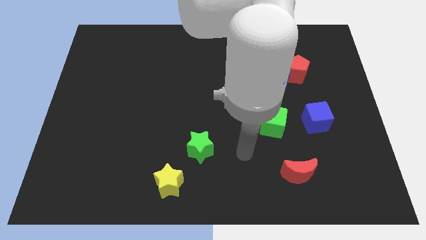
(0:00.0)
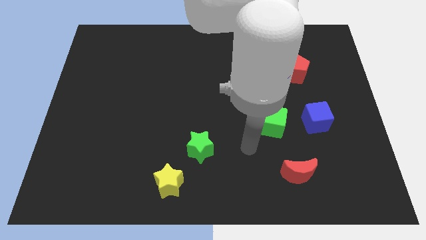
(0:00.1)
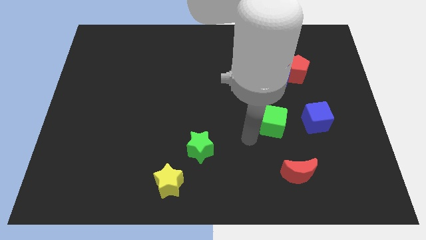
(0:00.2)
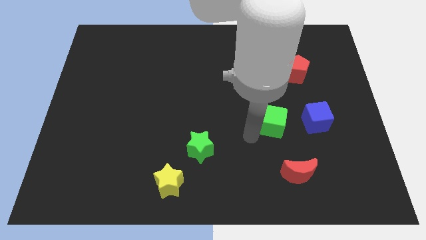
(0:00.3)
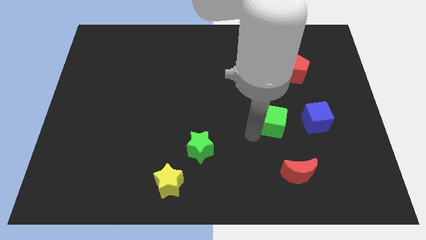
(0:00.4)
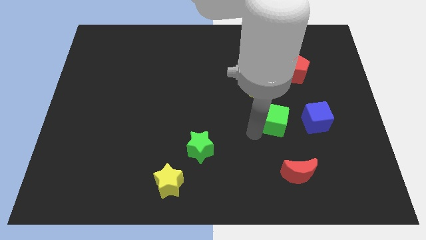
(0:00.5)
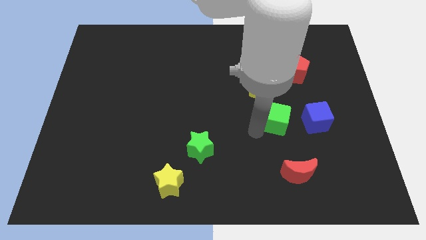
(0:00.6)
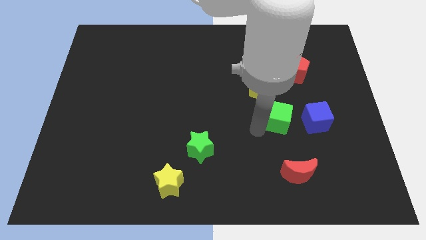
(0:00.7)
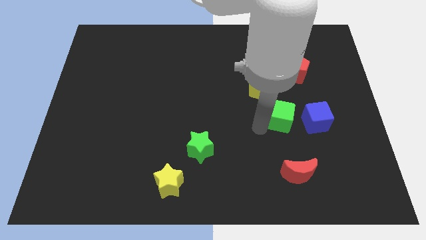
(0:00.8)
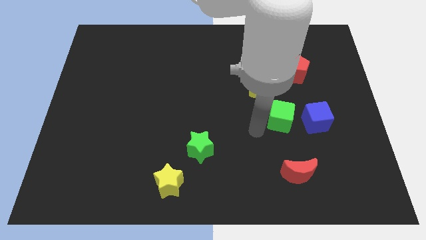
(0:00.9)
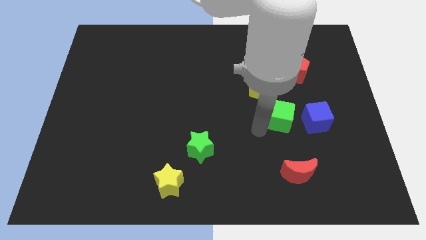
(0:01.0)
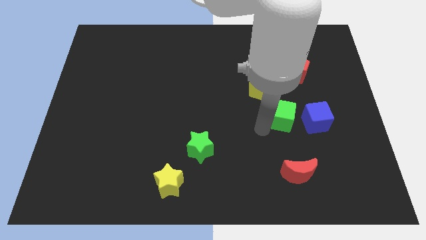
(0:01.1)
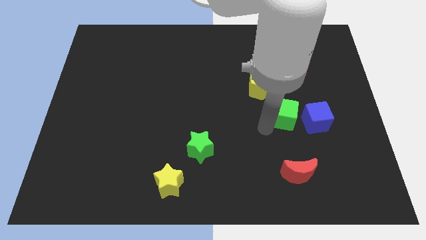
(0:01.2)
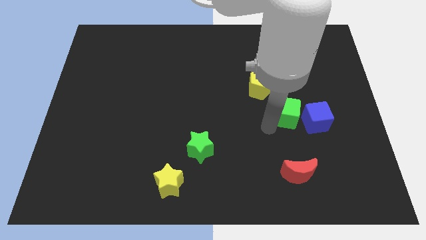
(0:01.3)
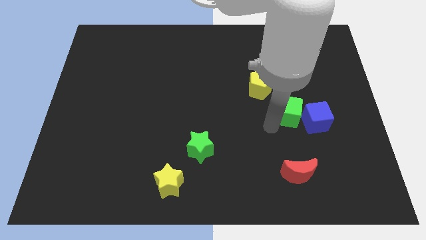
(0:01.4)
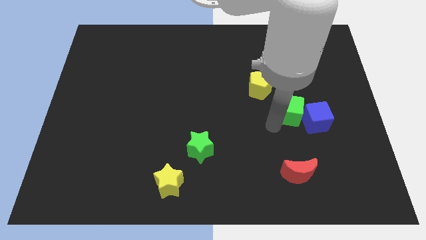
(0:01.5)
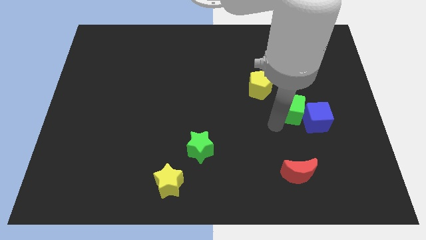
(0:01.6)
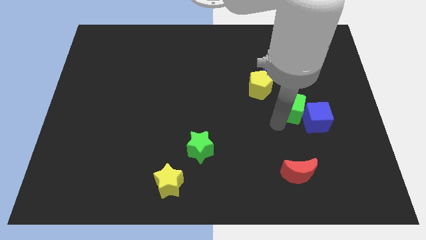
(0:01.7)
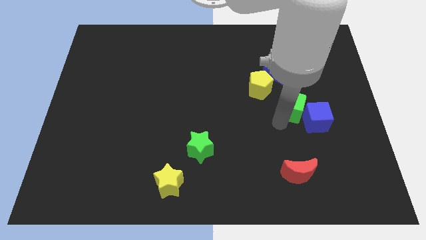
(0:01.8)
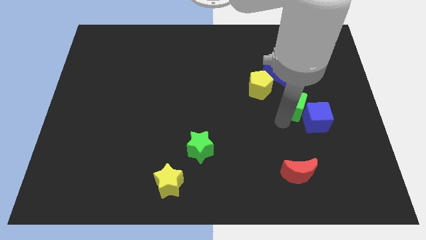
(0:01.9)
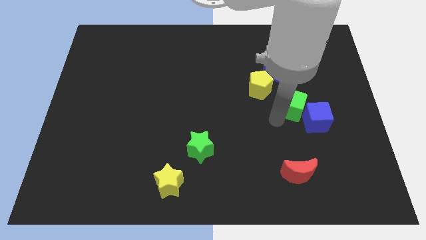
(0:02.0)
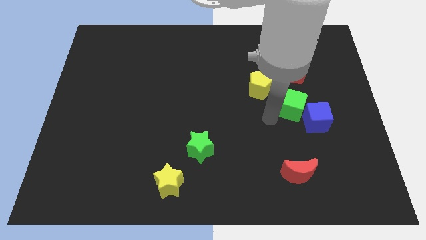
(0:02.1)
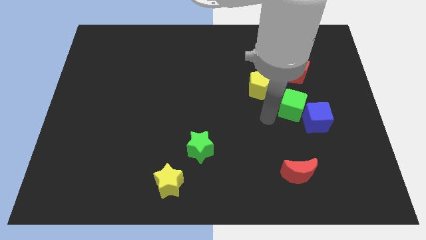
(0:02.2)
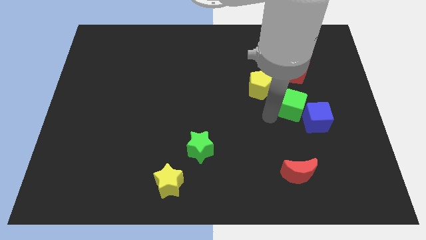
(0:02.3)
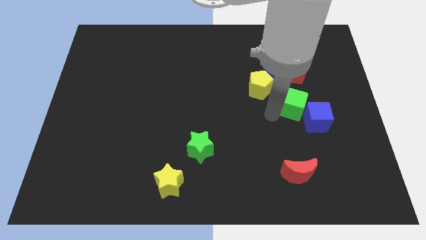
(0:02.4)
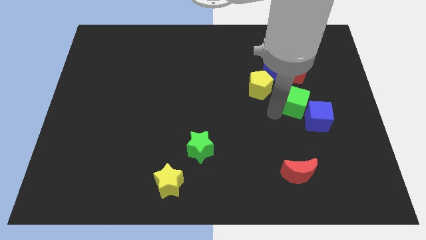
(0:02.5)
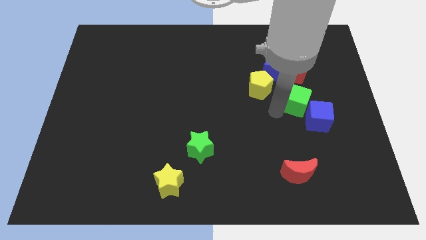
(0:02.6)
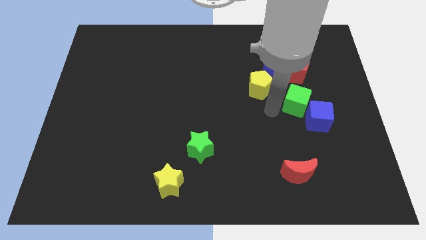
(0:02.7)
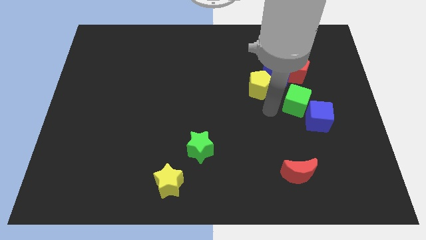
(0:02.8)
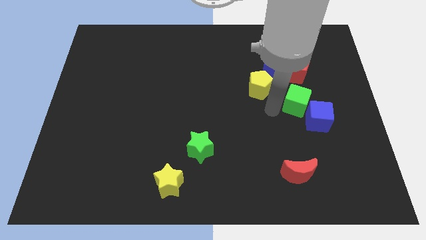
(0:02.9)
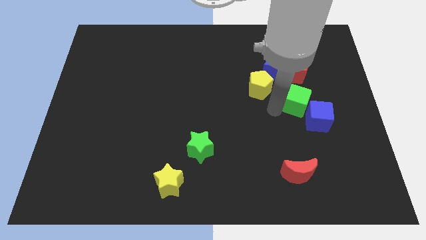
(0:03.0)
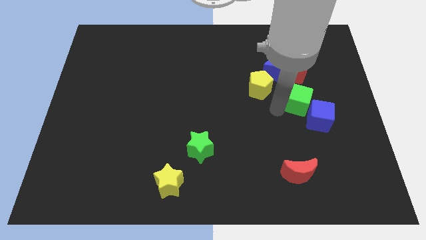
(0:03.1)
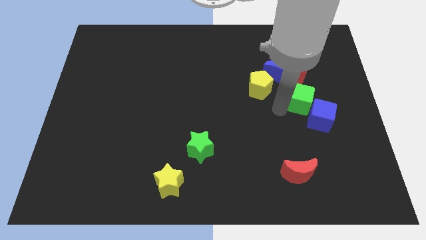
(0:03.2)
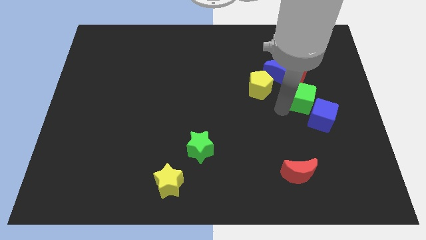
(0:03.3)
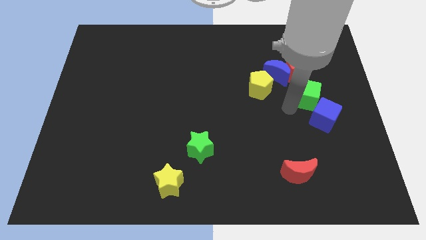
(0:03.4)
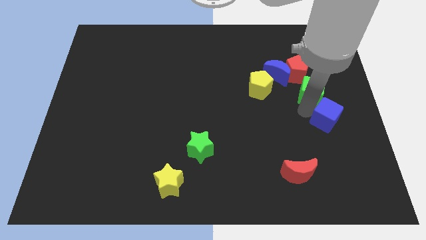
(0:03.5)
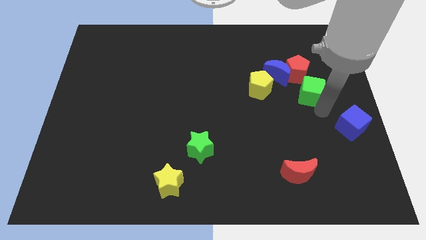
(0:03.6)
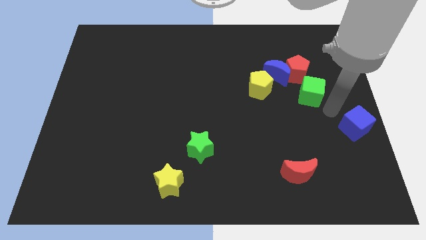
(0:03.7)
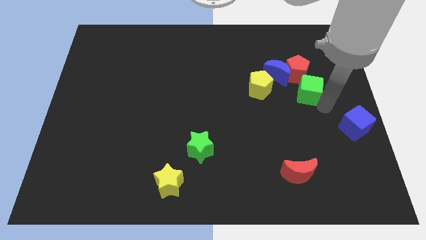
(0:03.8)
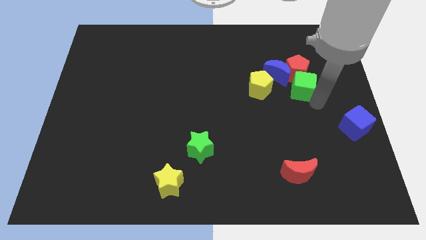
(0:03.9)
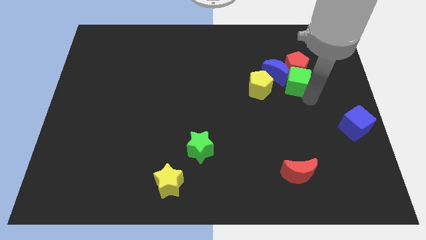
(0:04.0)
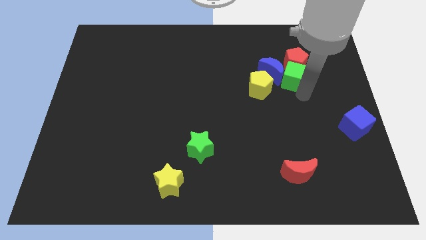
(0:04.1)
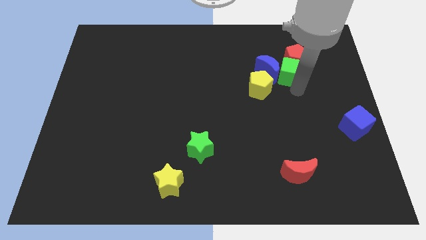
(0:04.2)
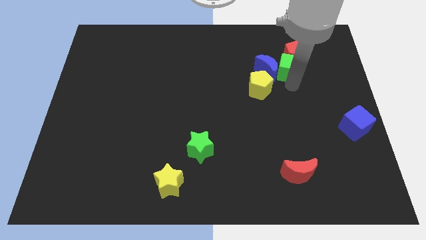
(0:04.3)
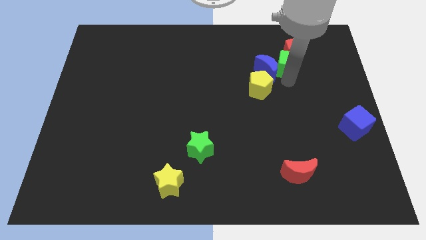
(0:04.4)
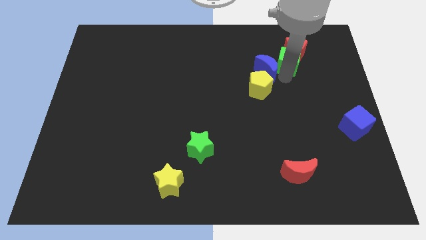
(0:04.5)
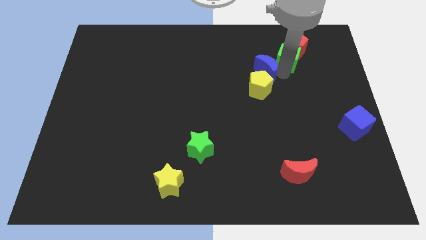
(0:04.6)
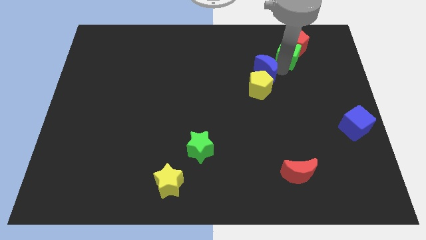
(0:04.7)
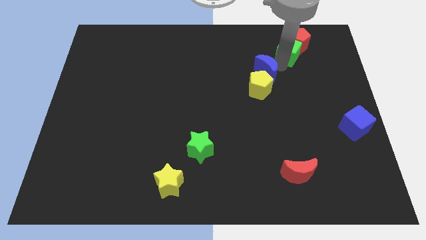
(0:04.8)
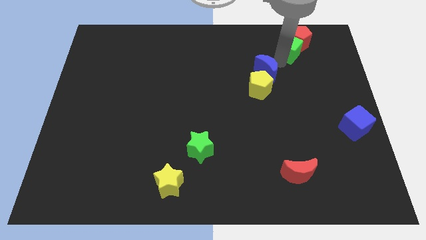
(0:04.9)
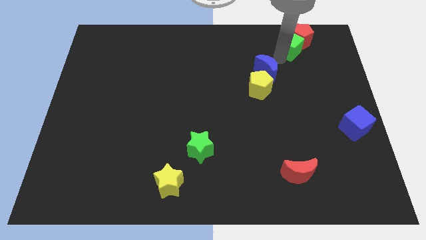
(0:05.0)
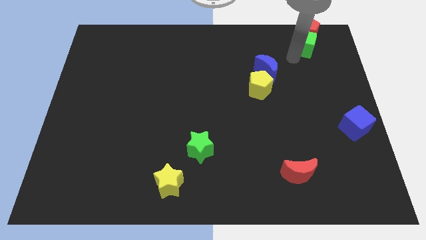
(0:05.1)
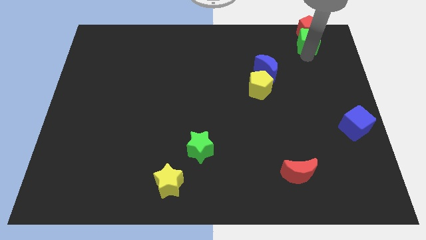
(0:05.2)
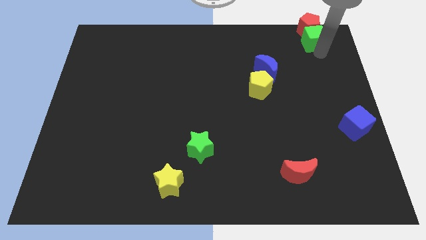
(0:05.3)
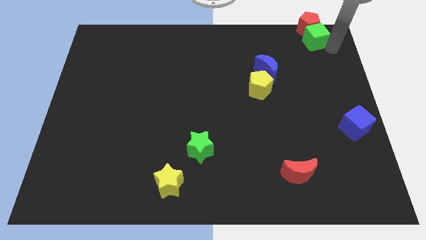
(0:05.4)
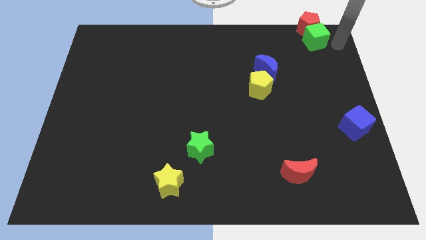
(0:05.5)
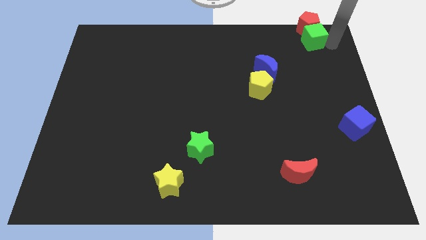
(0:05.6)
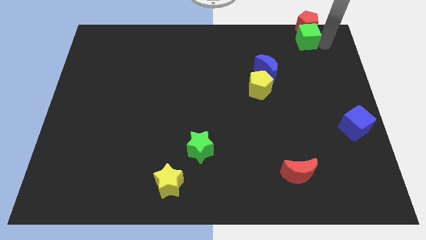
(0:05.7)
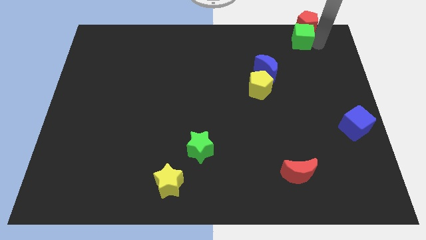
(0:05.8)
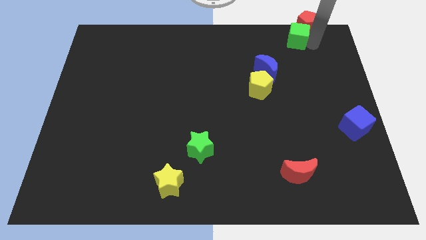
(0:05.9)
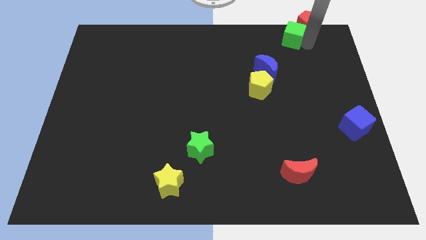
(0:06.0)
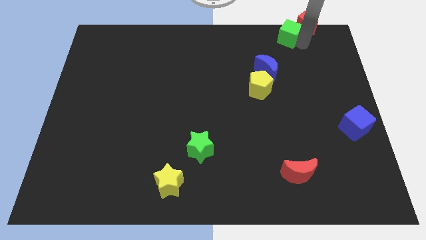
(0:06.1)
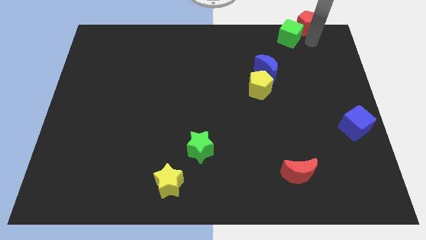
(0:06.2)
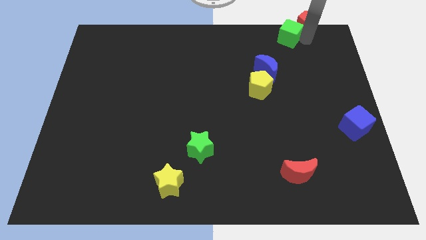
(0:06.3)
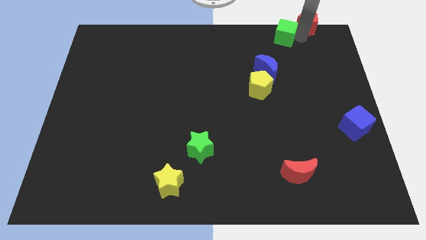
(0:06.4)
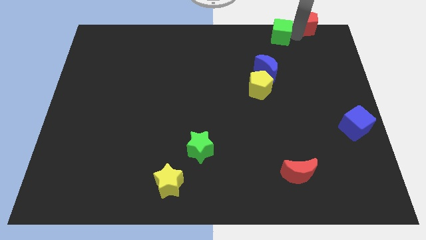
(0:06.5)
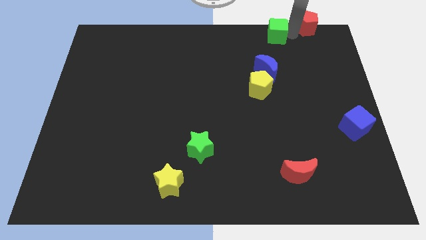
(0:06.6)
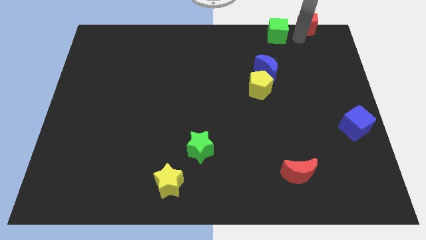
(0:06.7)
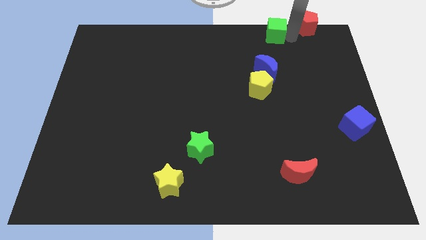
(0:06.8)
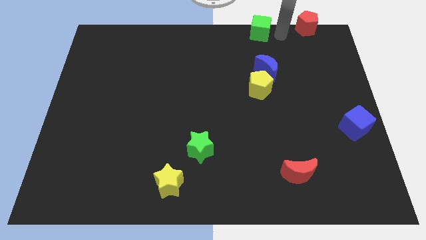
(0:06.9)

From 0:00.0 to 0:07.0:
move the green cube to the top

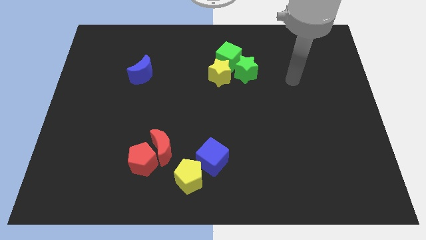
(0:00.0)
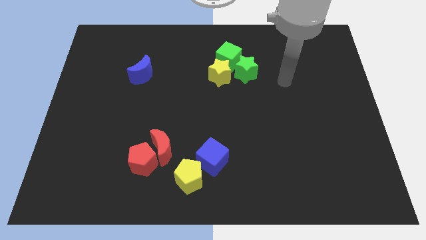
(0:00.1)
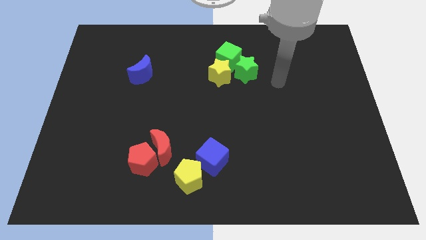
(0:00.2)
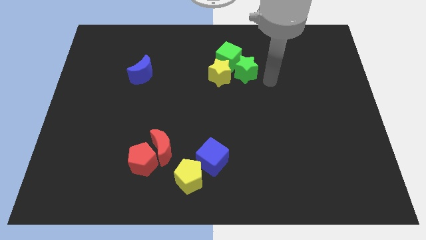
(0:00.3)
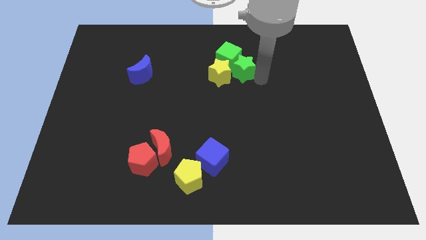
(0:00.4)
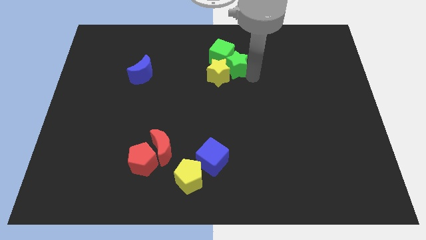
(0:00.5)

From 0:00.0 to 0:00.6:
put the green cube to the towards your base
